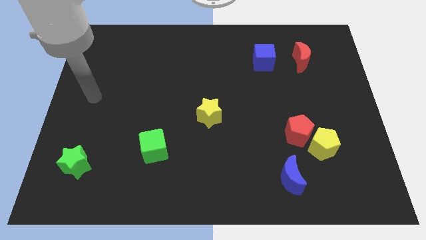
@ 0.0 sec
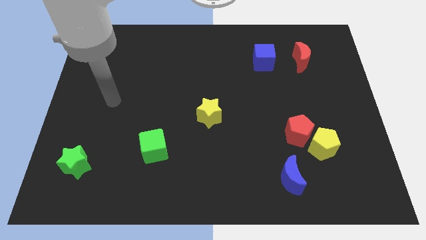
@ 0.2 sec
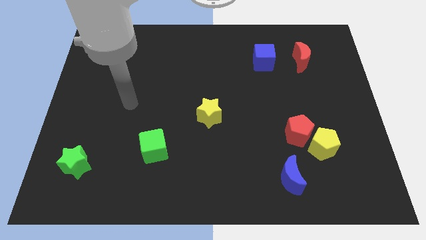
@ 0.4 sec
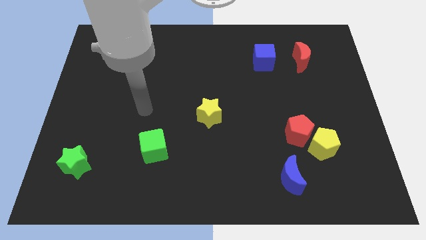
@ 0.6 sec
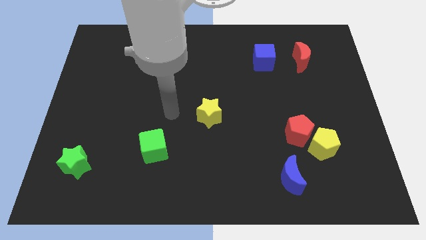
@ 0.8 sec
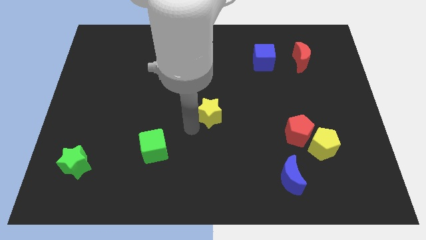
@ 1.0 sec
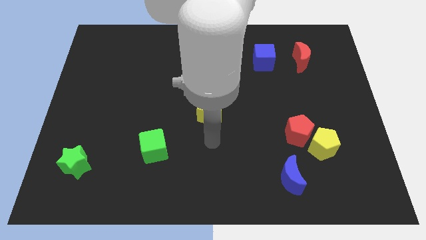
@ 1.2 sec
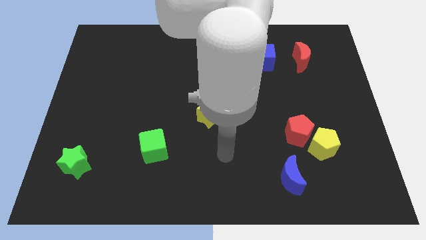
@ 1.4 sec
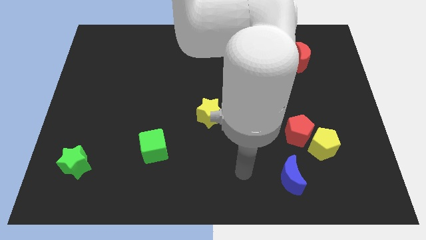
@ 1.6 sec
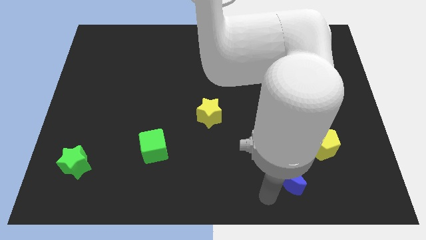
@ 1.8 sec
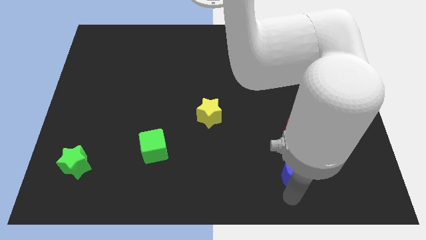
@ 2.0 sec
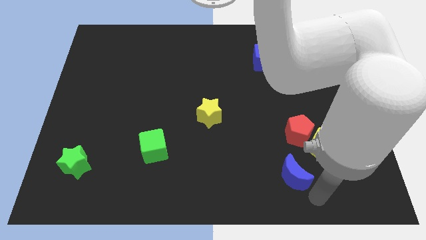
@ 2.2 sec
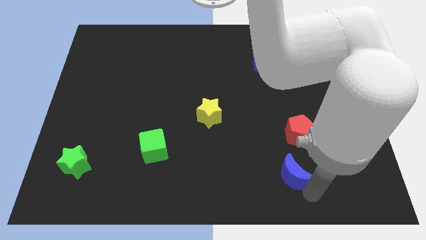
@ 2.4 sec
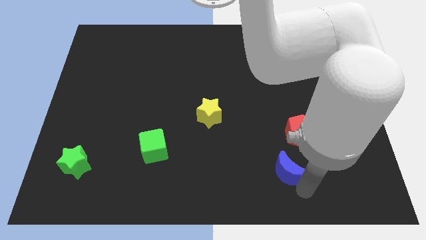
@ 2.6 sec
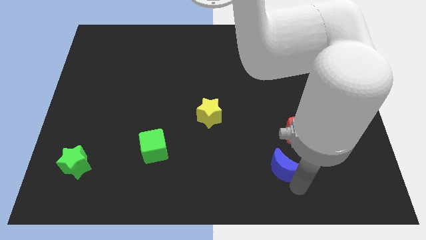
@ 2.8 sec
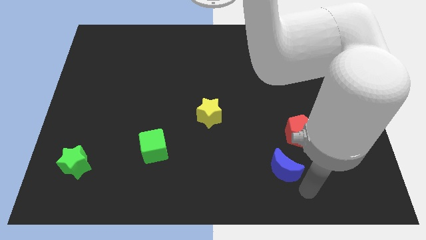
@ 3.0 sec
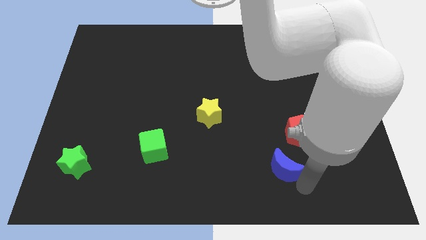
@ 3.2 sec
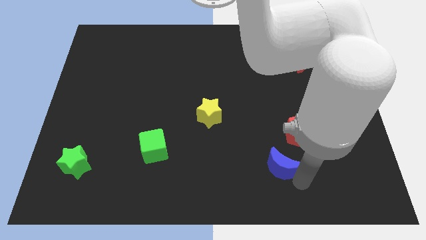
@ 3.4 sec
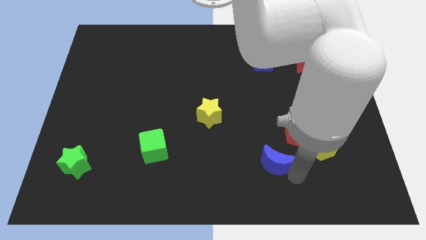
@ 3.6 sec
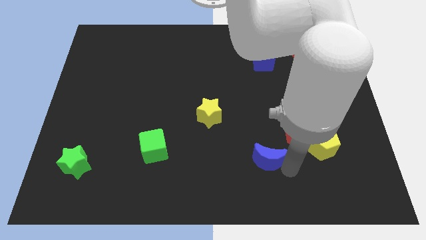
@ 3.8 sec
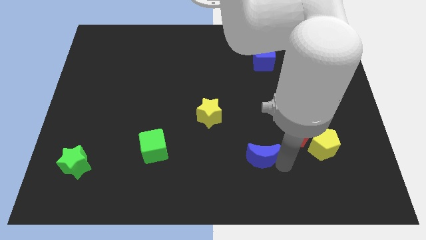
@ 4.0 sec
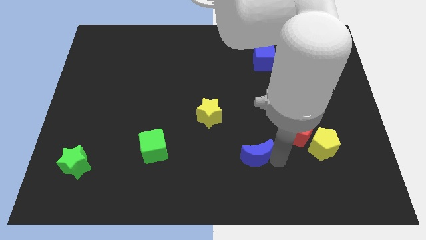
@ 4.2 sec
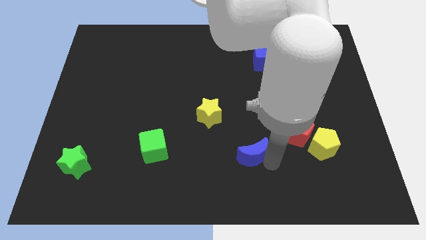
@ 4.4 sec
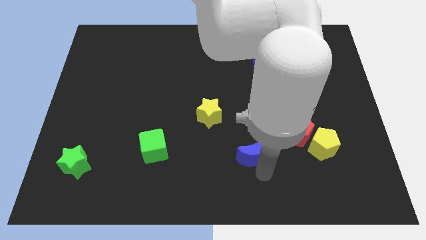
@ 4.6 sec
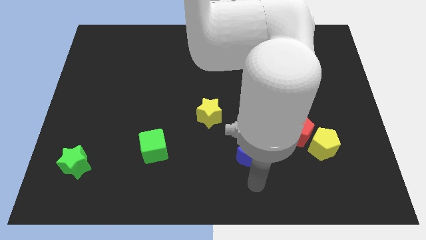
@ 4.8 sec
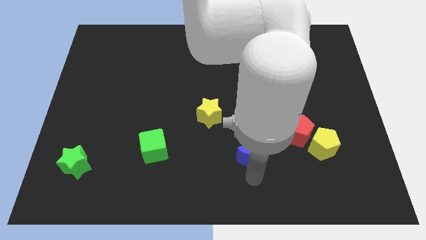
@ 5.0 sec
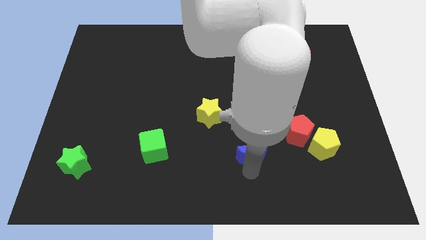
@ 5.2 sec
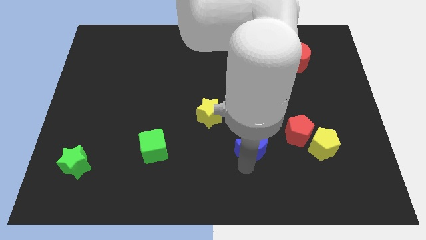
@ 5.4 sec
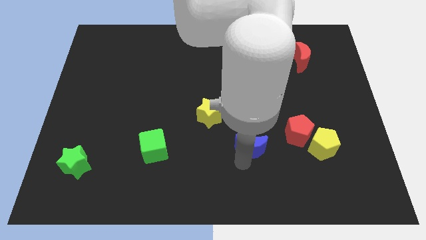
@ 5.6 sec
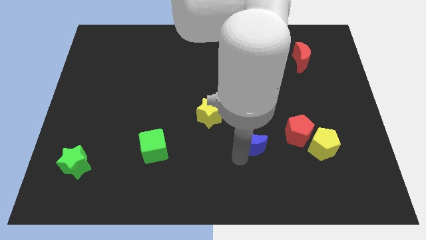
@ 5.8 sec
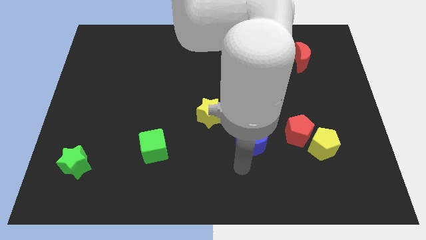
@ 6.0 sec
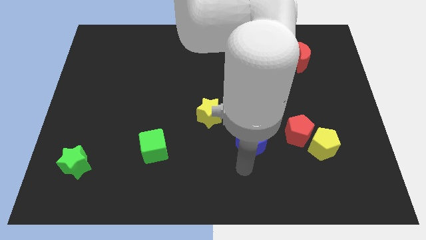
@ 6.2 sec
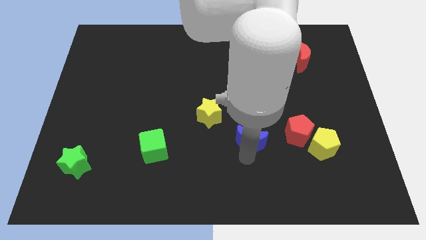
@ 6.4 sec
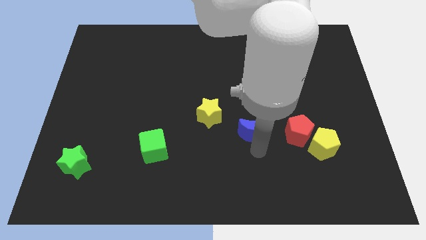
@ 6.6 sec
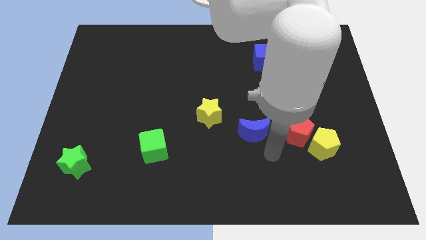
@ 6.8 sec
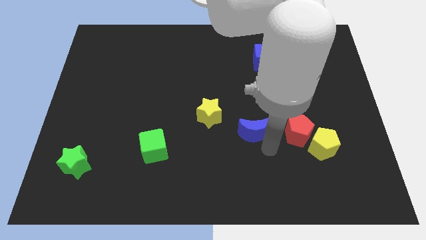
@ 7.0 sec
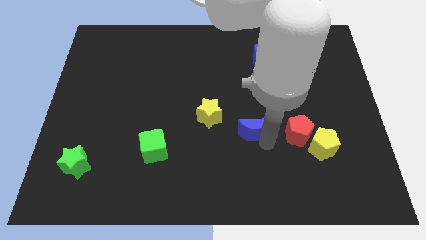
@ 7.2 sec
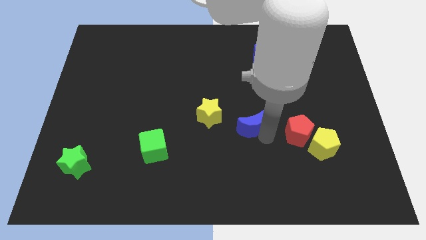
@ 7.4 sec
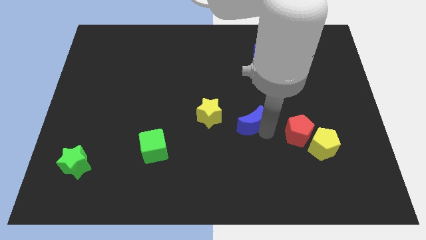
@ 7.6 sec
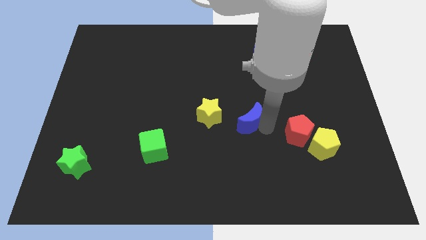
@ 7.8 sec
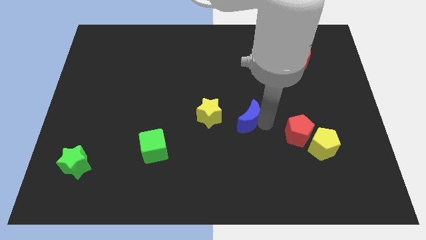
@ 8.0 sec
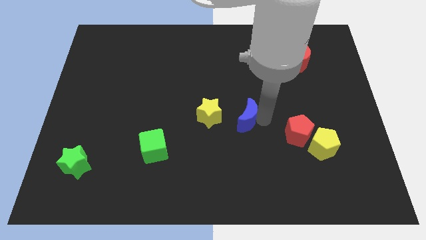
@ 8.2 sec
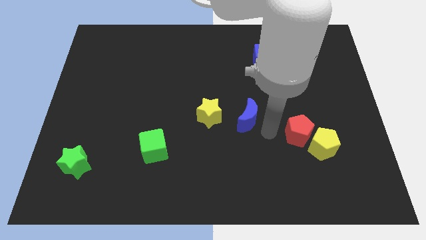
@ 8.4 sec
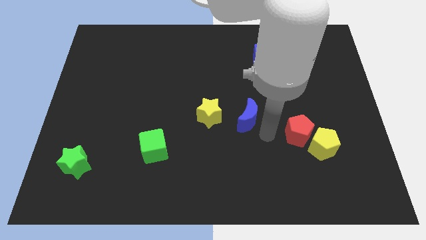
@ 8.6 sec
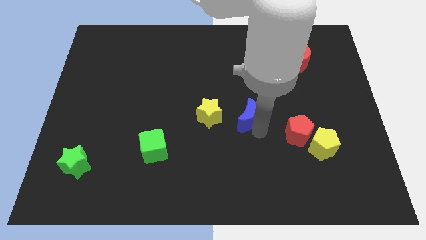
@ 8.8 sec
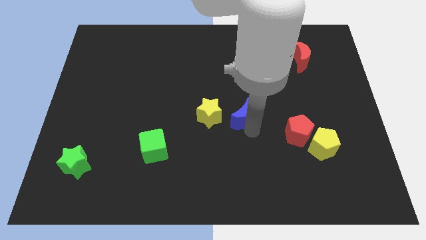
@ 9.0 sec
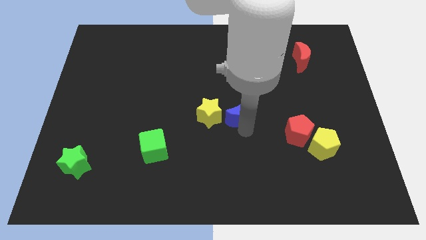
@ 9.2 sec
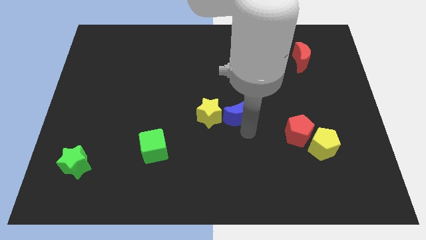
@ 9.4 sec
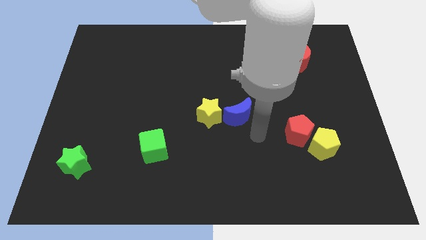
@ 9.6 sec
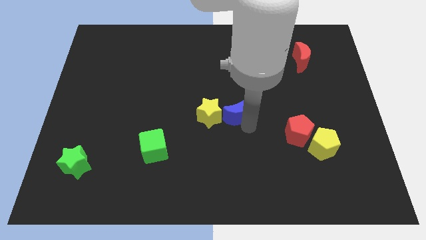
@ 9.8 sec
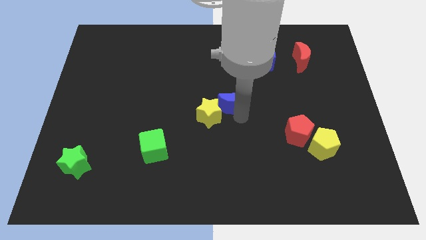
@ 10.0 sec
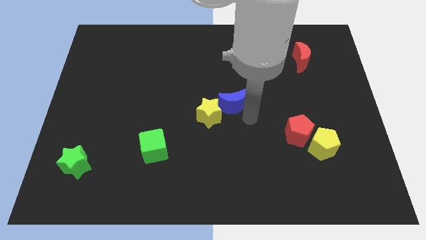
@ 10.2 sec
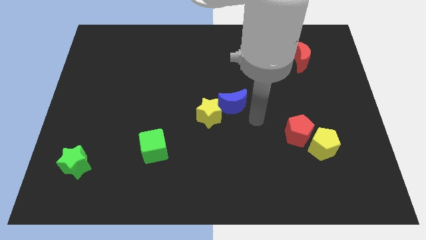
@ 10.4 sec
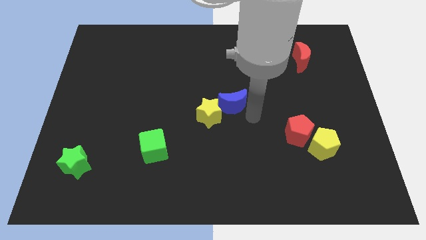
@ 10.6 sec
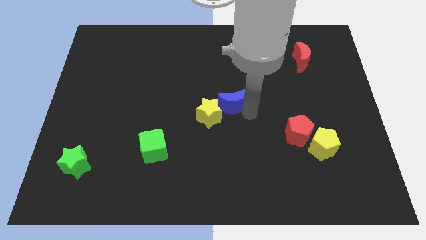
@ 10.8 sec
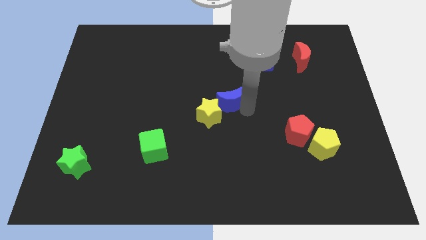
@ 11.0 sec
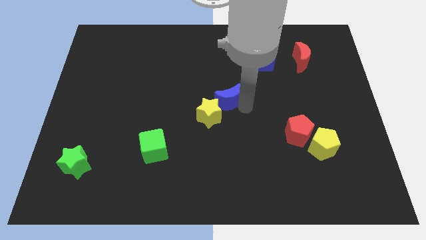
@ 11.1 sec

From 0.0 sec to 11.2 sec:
put the blue moon to the top side of the yellow star

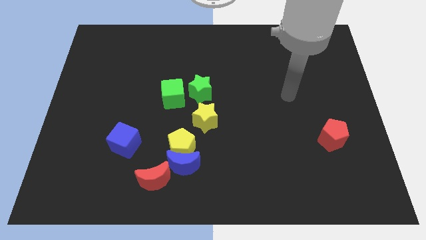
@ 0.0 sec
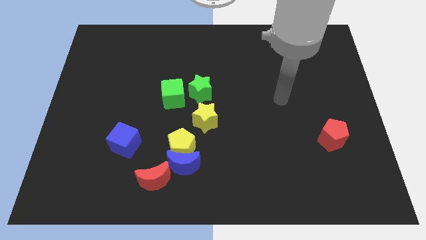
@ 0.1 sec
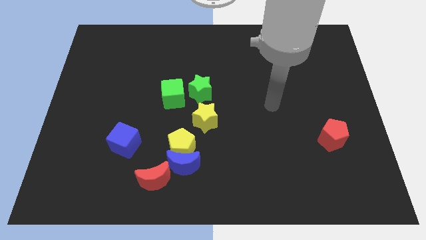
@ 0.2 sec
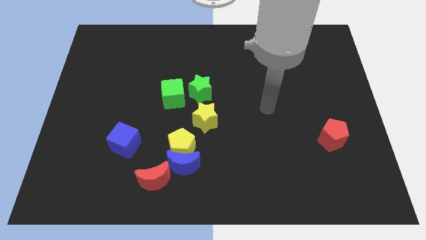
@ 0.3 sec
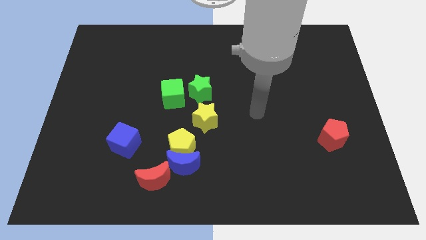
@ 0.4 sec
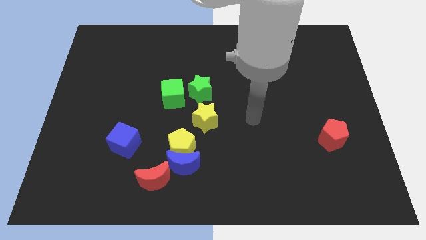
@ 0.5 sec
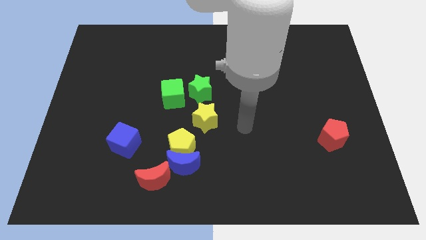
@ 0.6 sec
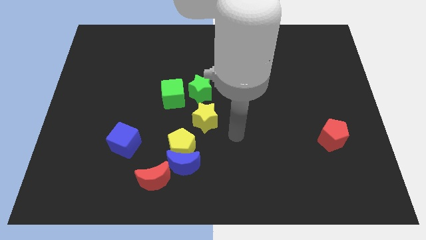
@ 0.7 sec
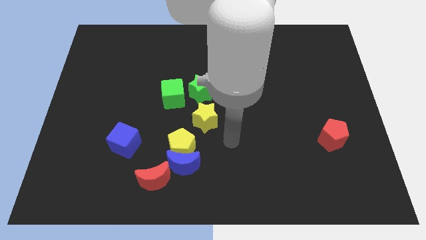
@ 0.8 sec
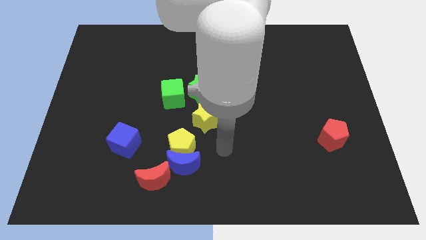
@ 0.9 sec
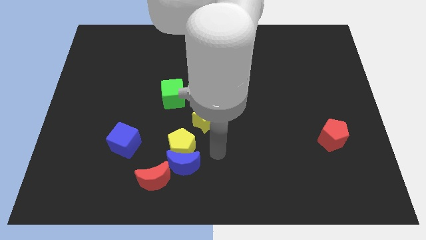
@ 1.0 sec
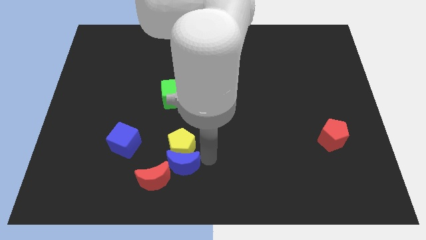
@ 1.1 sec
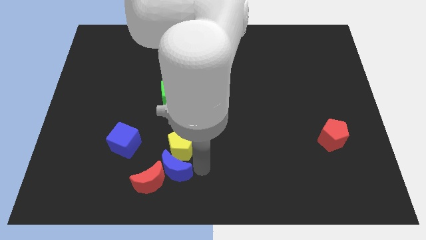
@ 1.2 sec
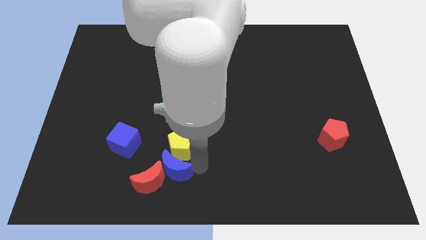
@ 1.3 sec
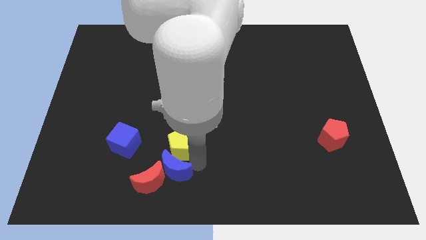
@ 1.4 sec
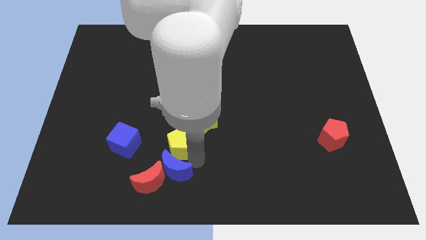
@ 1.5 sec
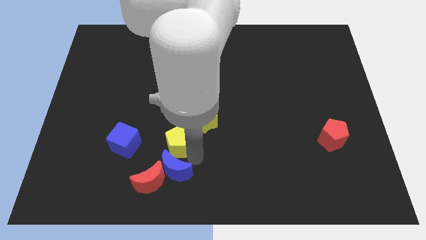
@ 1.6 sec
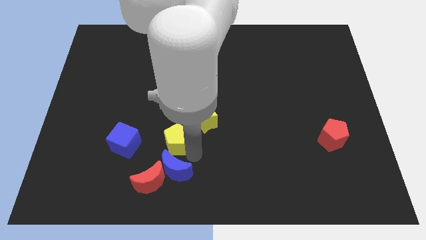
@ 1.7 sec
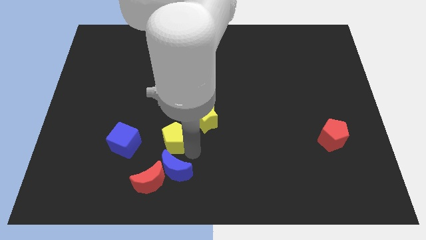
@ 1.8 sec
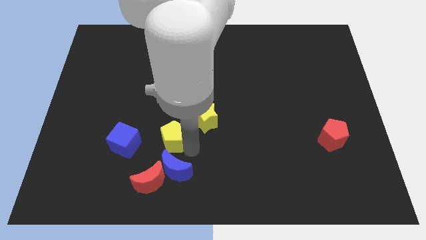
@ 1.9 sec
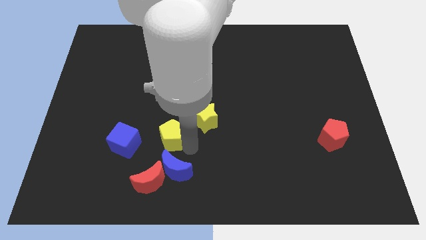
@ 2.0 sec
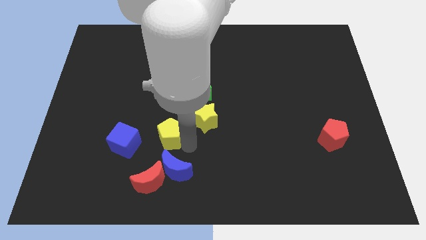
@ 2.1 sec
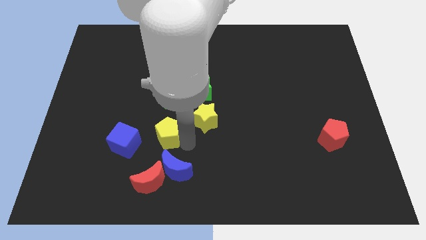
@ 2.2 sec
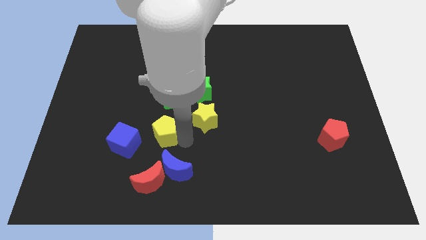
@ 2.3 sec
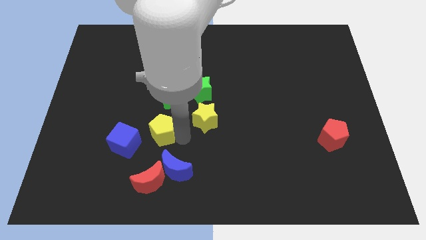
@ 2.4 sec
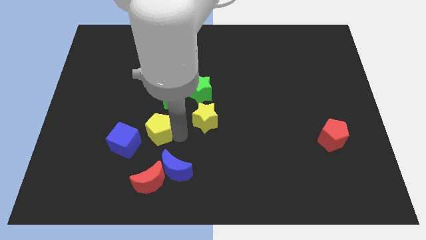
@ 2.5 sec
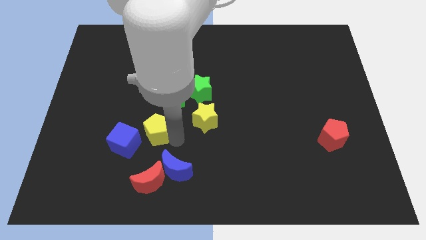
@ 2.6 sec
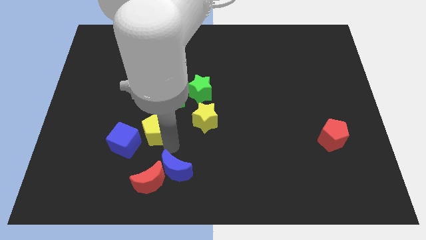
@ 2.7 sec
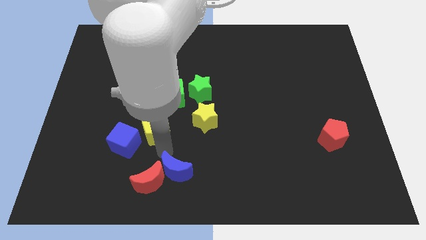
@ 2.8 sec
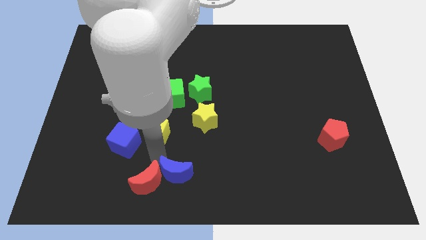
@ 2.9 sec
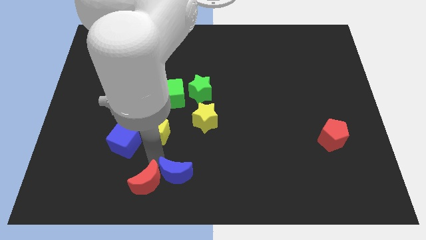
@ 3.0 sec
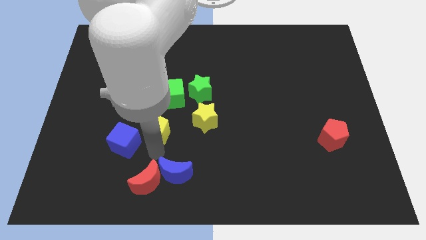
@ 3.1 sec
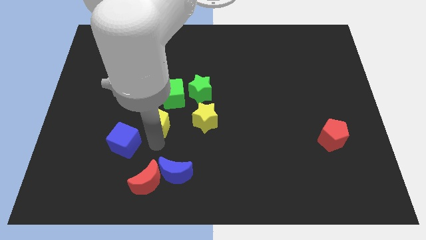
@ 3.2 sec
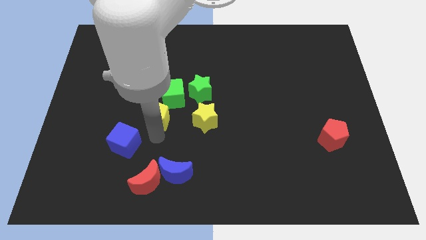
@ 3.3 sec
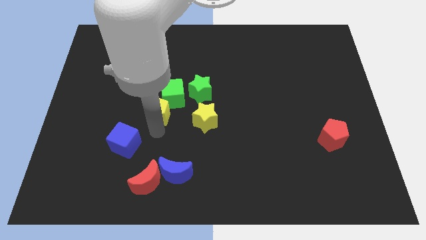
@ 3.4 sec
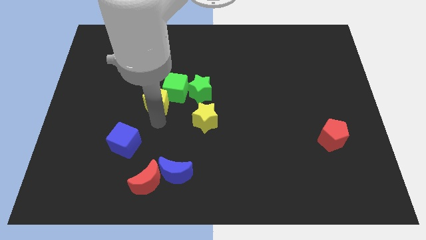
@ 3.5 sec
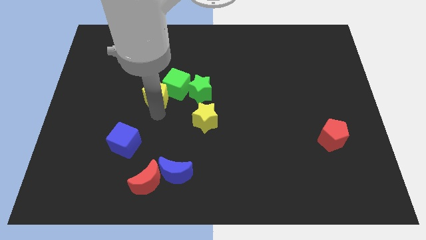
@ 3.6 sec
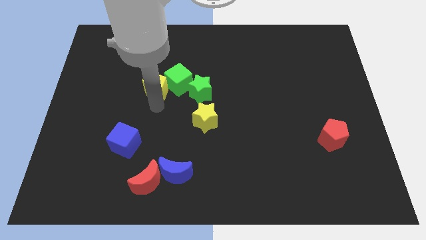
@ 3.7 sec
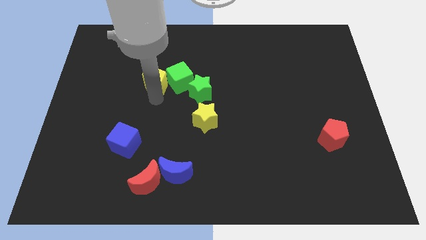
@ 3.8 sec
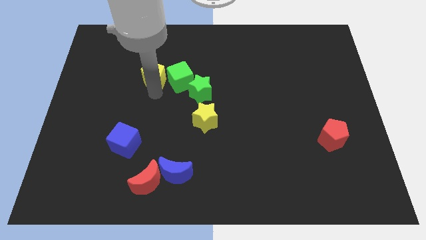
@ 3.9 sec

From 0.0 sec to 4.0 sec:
move the yellow pentagon diagonally up and to the left of the green cube
